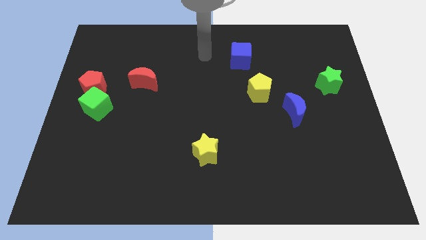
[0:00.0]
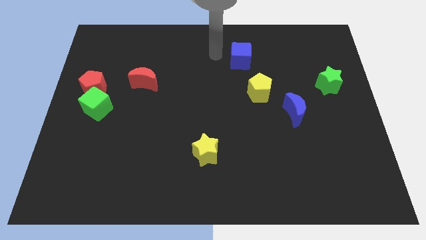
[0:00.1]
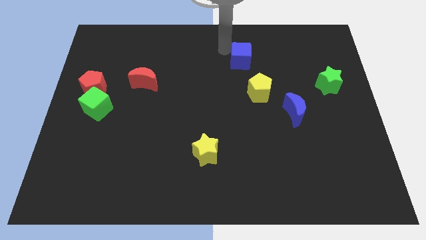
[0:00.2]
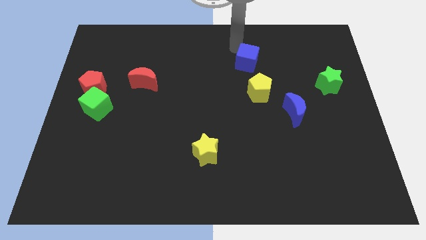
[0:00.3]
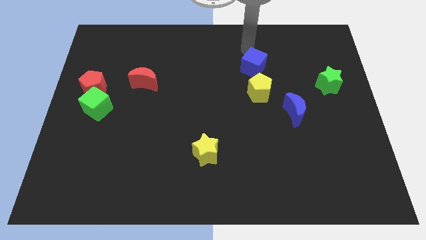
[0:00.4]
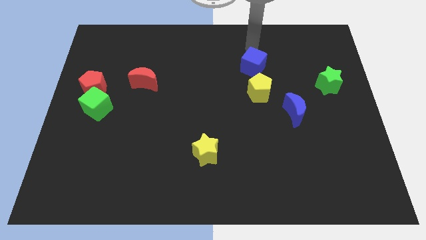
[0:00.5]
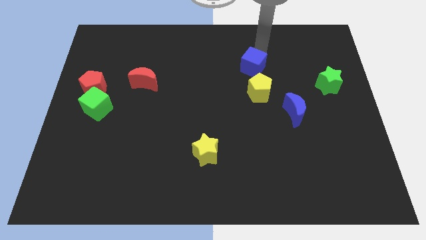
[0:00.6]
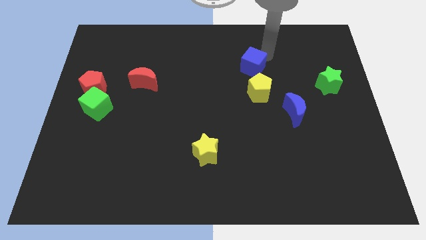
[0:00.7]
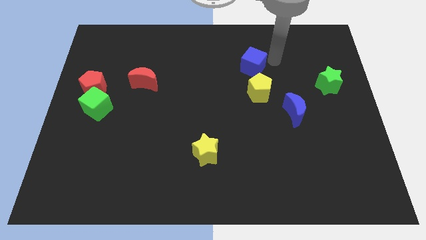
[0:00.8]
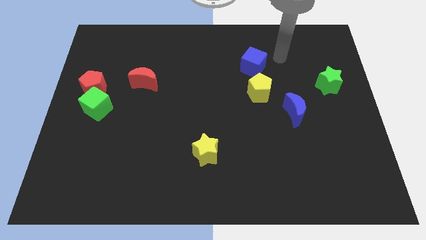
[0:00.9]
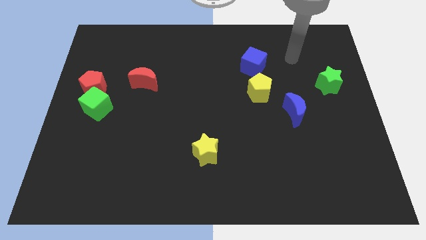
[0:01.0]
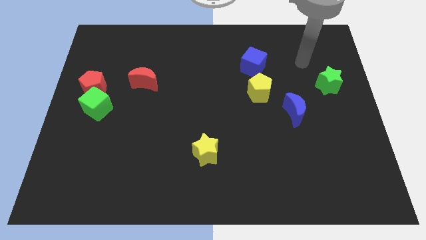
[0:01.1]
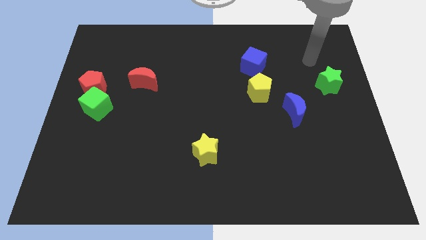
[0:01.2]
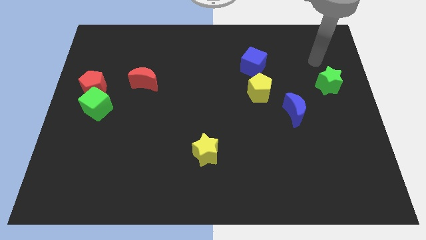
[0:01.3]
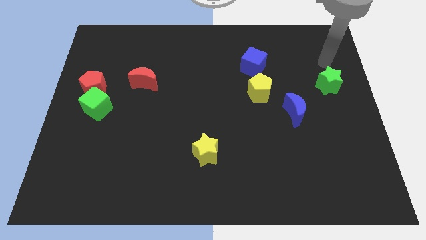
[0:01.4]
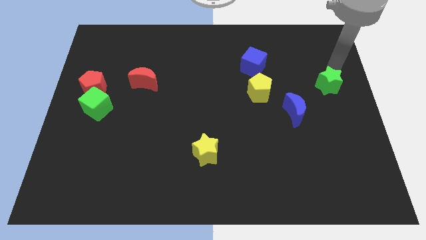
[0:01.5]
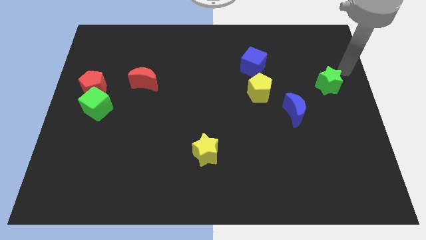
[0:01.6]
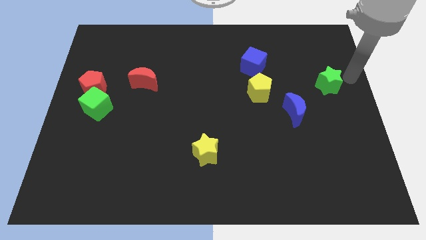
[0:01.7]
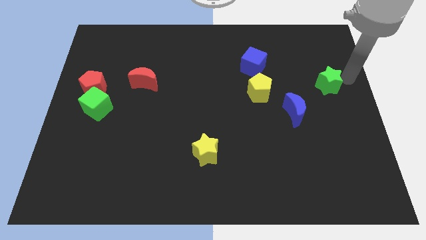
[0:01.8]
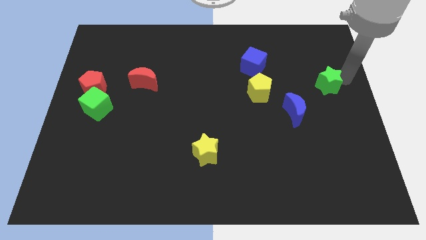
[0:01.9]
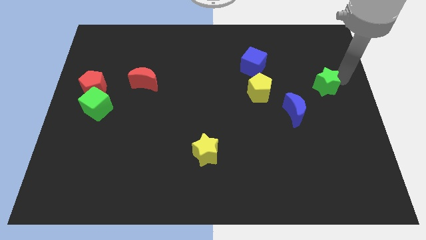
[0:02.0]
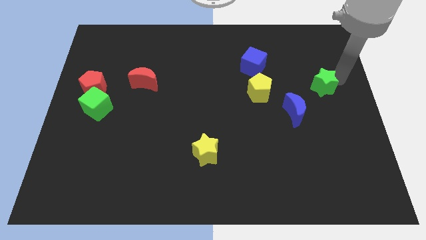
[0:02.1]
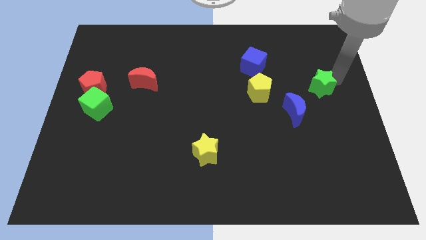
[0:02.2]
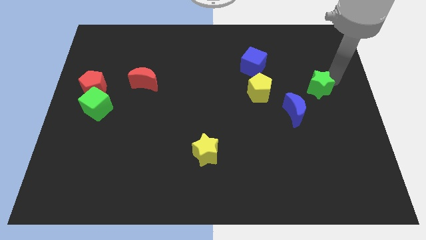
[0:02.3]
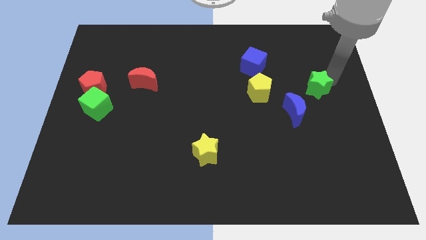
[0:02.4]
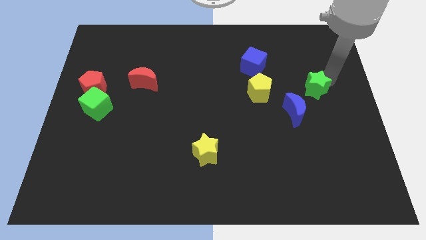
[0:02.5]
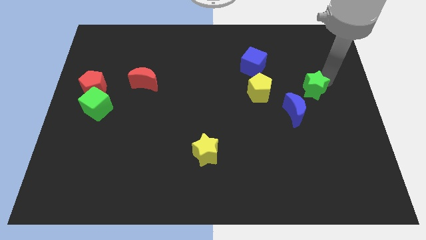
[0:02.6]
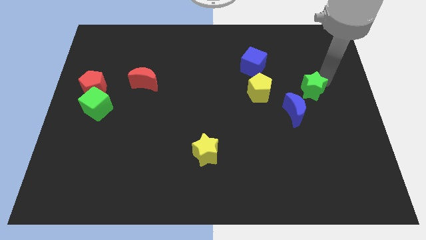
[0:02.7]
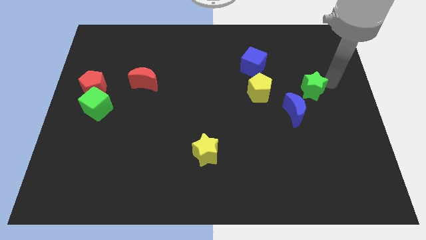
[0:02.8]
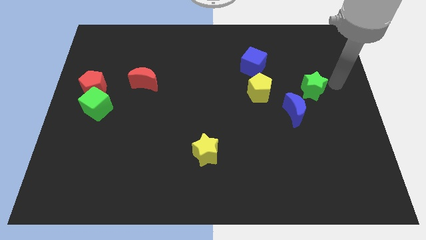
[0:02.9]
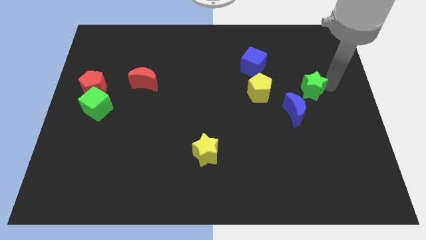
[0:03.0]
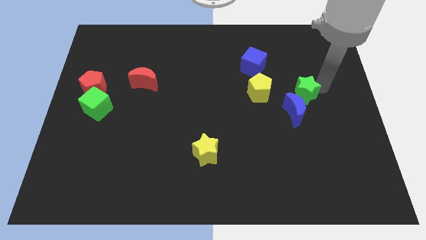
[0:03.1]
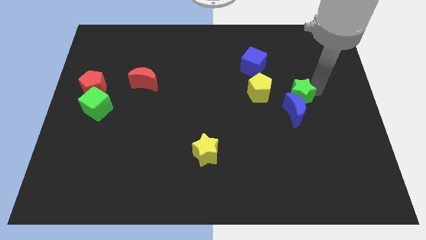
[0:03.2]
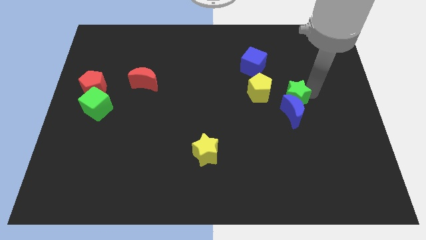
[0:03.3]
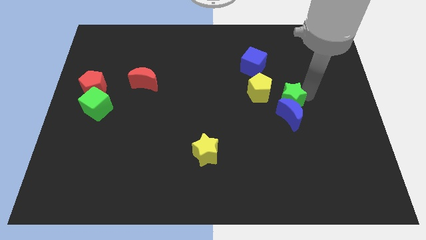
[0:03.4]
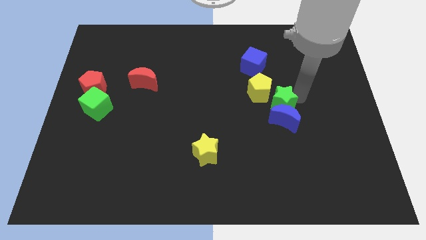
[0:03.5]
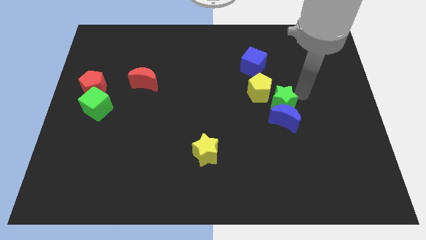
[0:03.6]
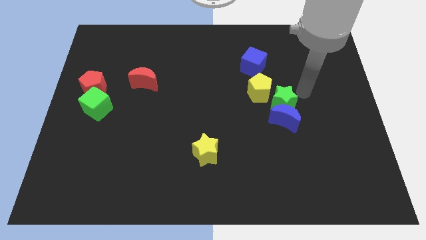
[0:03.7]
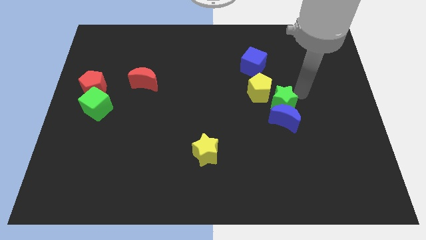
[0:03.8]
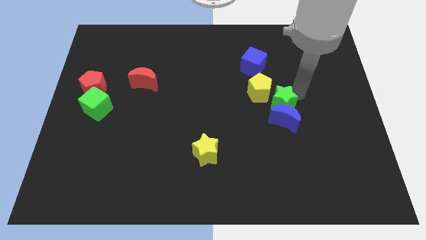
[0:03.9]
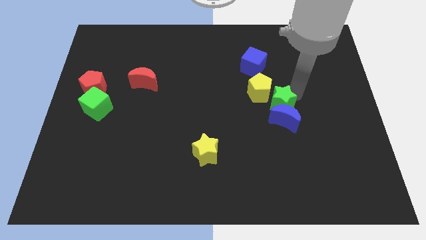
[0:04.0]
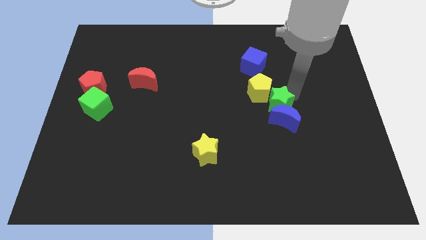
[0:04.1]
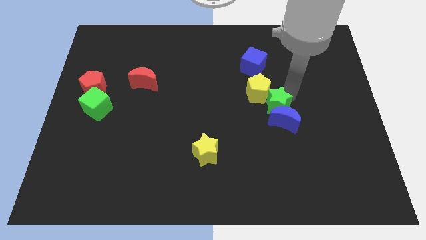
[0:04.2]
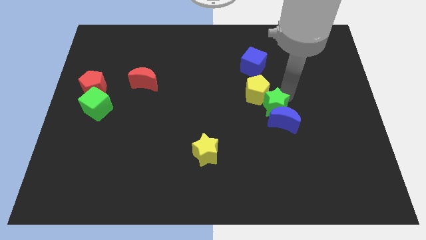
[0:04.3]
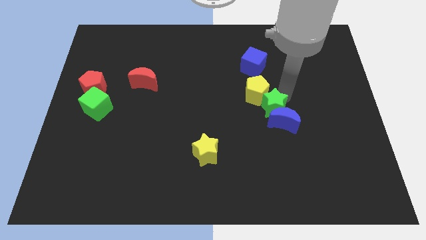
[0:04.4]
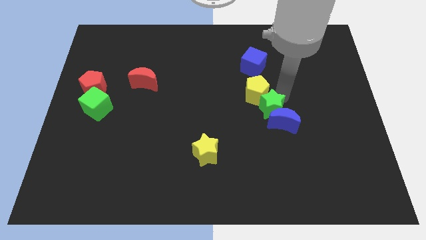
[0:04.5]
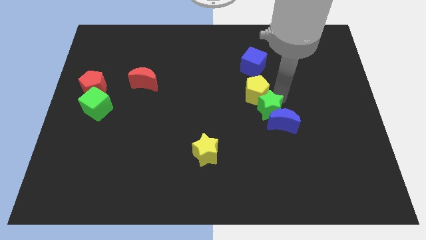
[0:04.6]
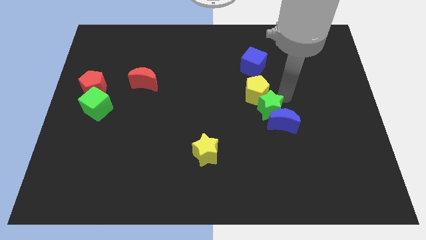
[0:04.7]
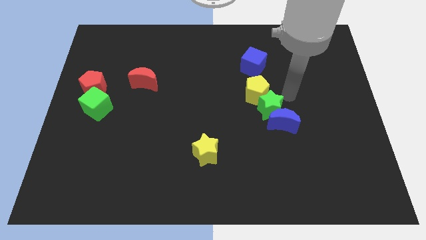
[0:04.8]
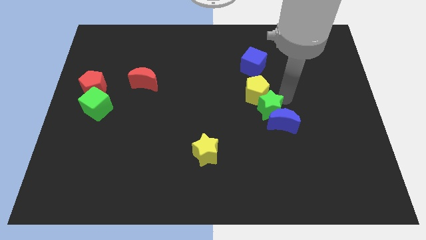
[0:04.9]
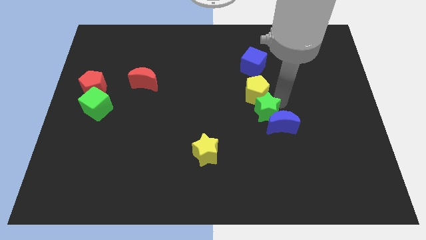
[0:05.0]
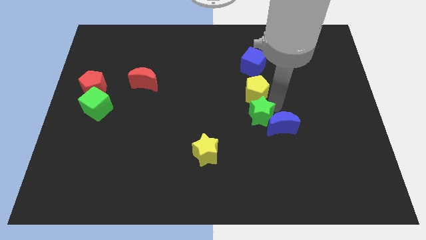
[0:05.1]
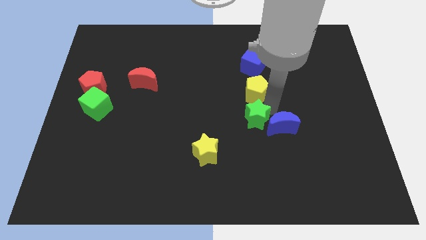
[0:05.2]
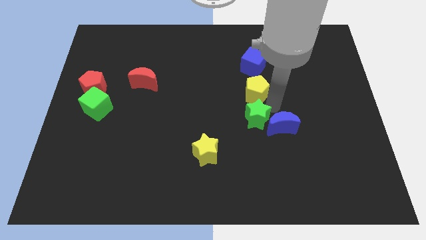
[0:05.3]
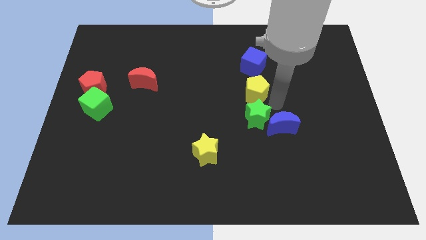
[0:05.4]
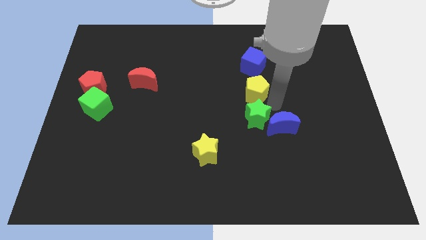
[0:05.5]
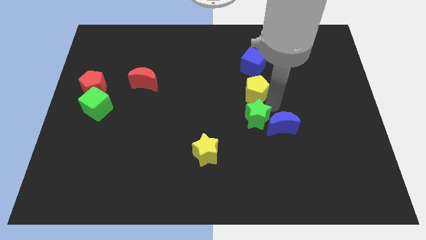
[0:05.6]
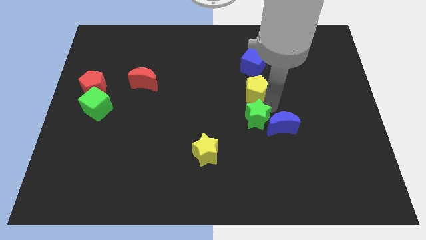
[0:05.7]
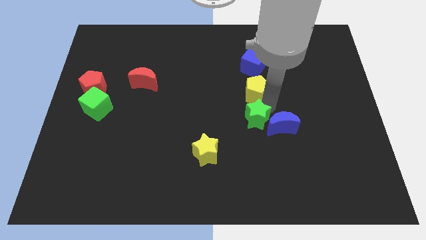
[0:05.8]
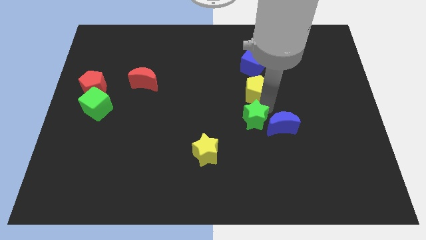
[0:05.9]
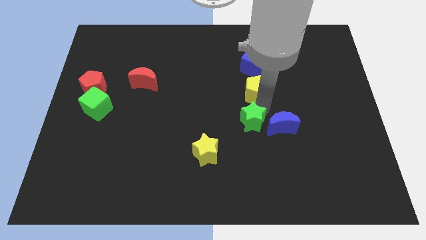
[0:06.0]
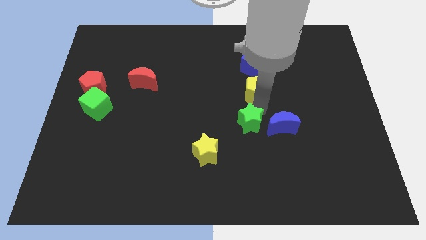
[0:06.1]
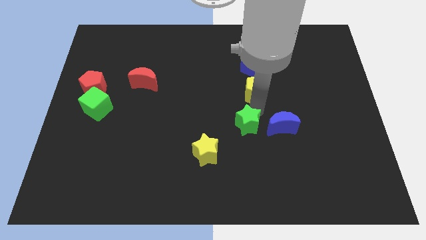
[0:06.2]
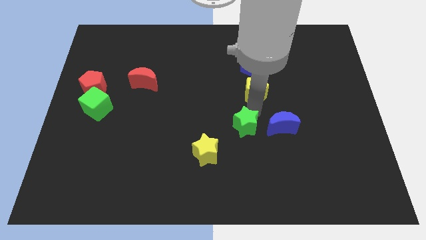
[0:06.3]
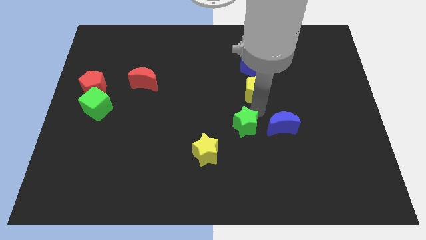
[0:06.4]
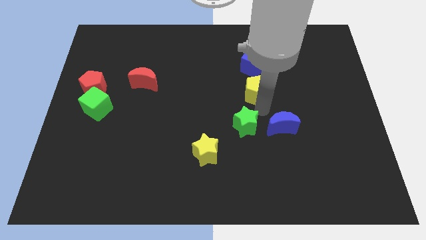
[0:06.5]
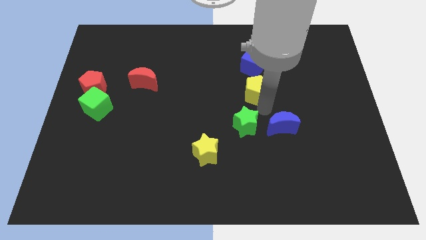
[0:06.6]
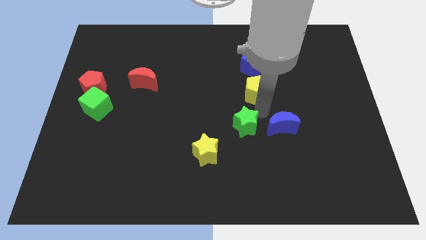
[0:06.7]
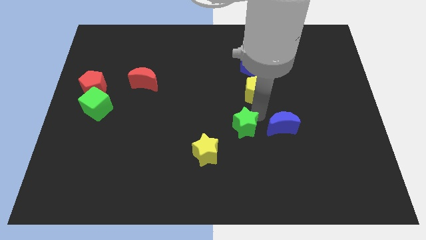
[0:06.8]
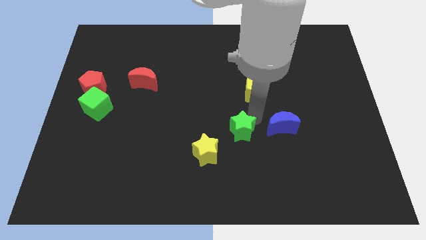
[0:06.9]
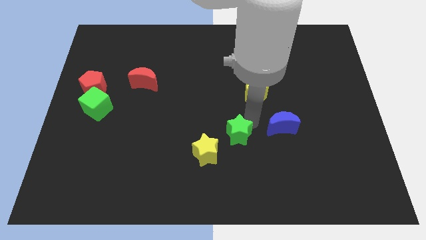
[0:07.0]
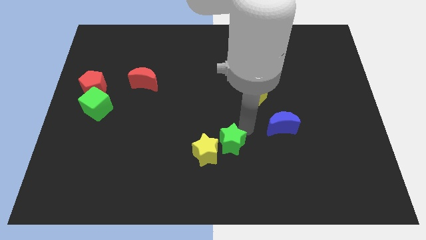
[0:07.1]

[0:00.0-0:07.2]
push the green star next to the yellow star

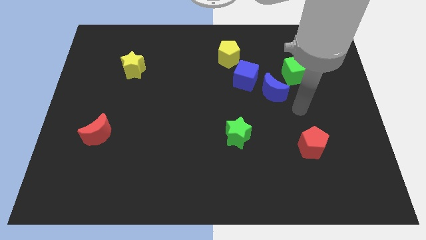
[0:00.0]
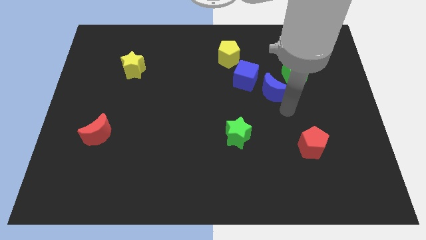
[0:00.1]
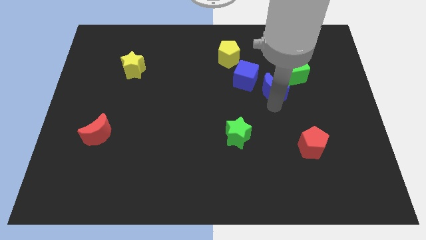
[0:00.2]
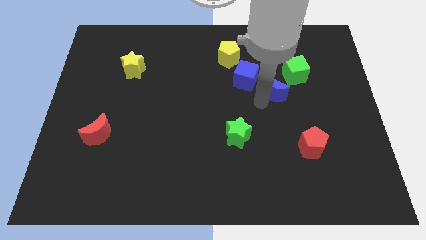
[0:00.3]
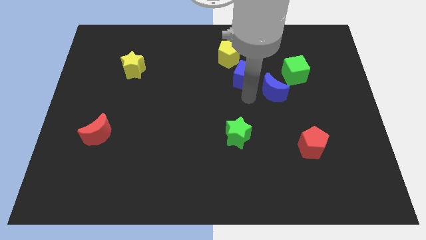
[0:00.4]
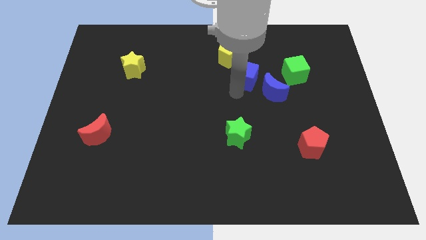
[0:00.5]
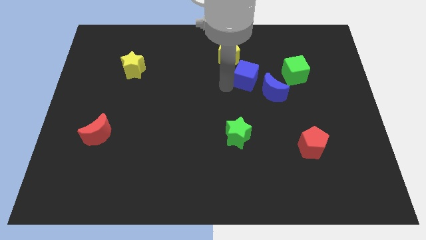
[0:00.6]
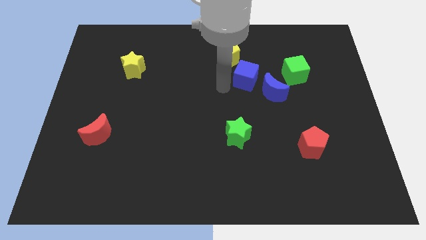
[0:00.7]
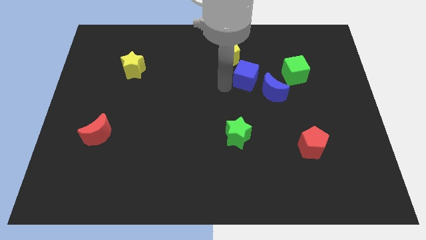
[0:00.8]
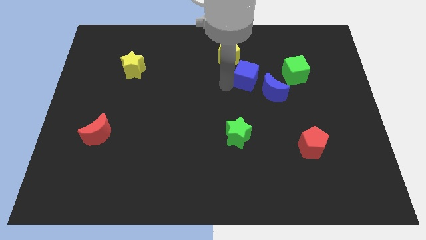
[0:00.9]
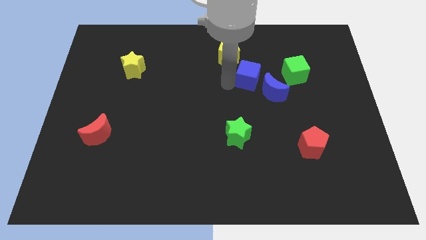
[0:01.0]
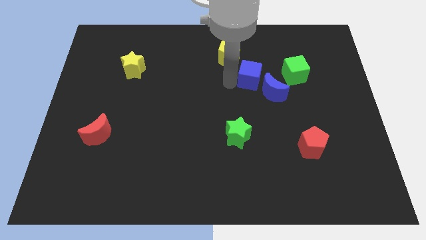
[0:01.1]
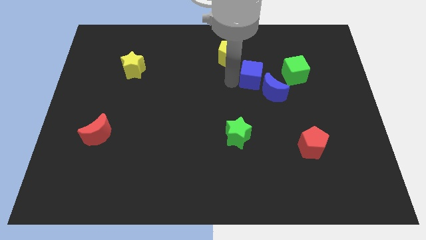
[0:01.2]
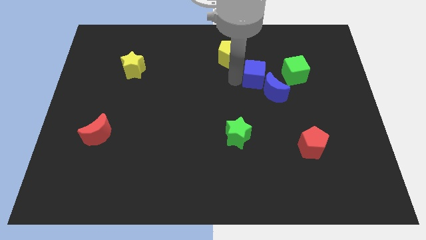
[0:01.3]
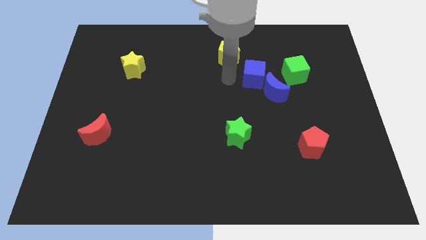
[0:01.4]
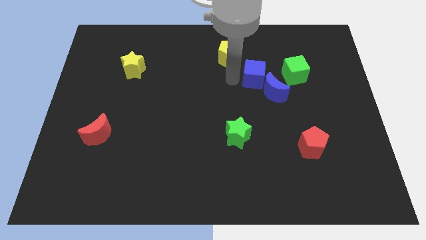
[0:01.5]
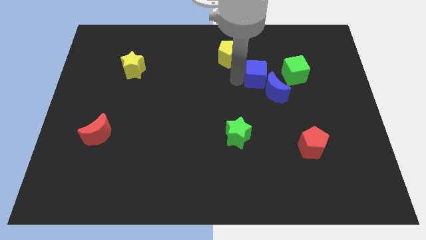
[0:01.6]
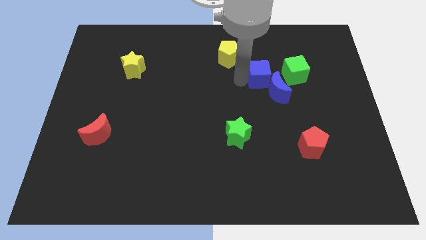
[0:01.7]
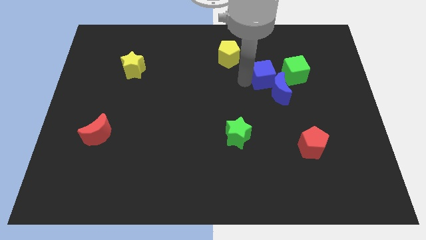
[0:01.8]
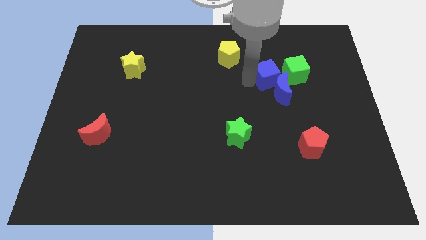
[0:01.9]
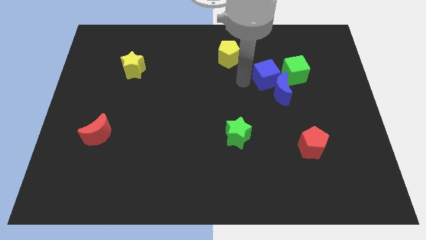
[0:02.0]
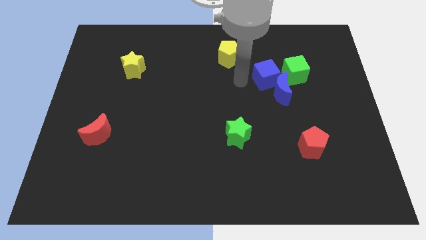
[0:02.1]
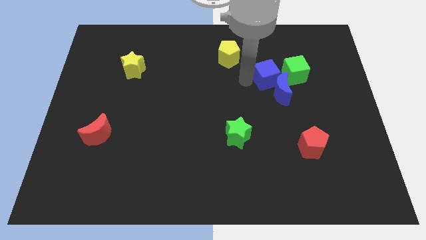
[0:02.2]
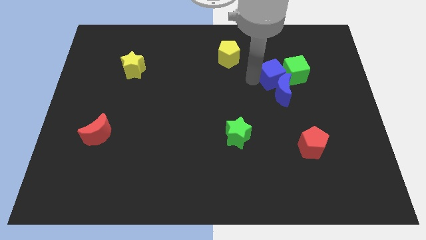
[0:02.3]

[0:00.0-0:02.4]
move the blue cube to the green cube
